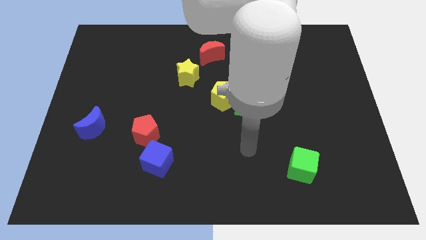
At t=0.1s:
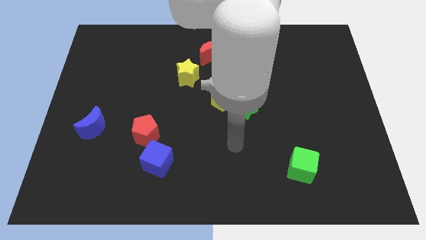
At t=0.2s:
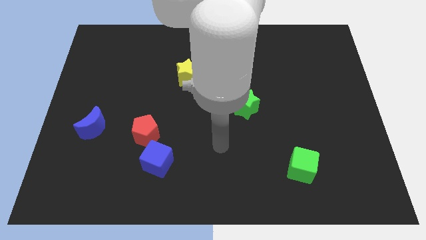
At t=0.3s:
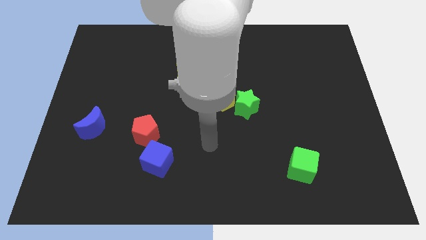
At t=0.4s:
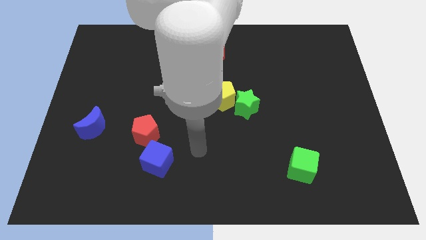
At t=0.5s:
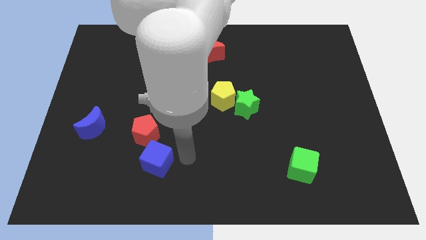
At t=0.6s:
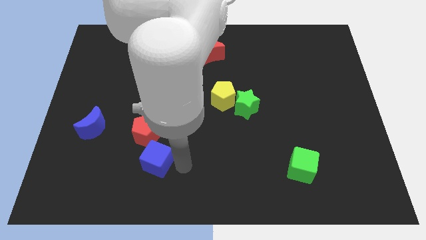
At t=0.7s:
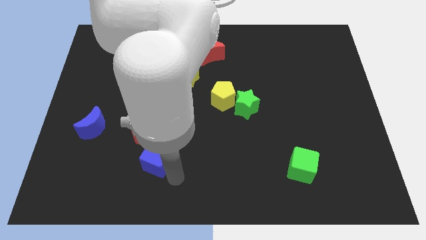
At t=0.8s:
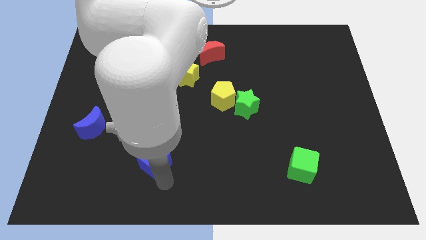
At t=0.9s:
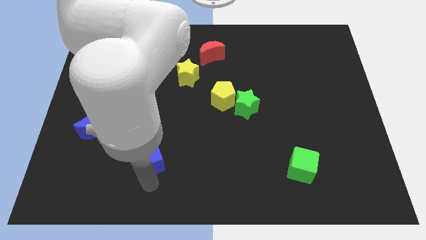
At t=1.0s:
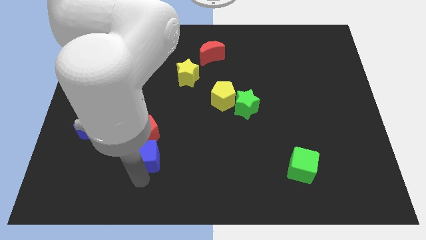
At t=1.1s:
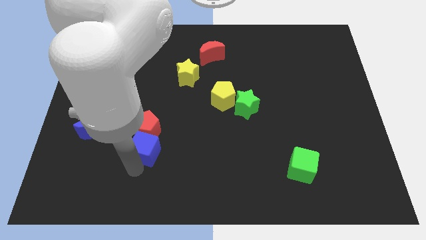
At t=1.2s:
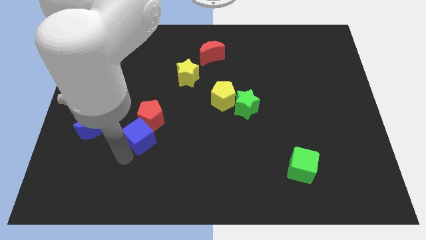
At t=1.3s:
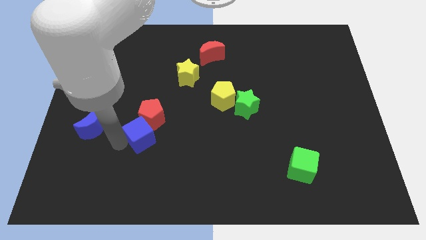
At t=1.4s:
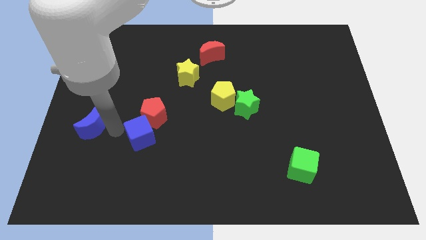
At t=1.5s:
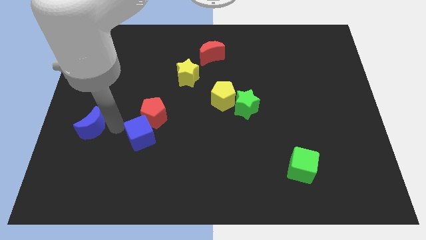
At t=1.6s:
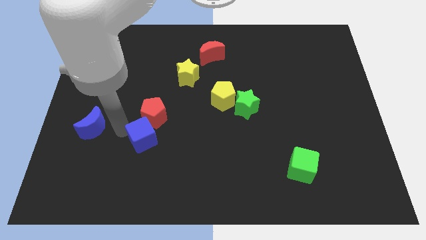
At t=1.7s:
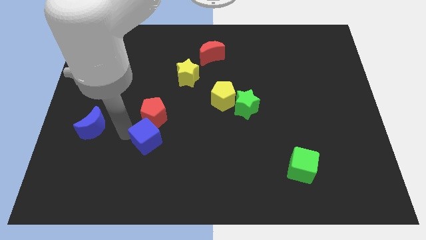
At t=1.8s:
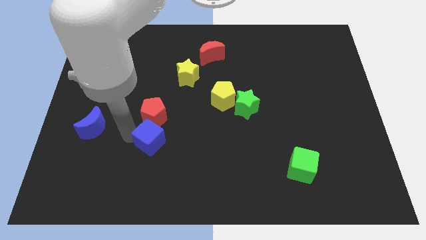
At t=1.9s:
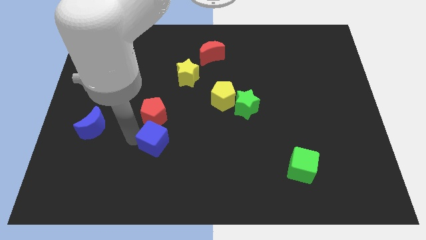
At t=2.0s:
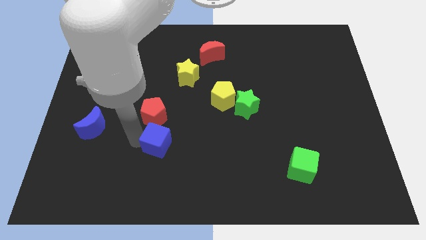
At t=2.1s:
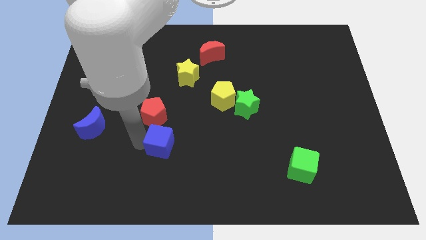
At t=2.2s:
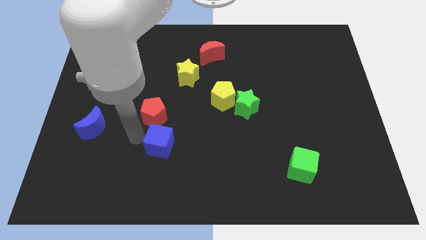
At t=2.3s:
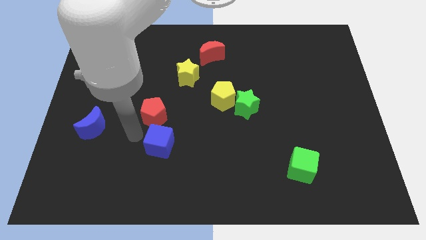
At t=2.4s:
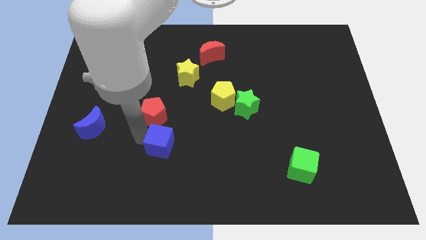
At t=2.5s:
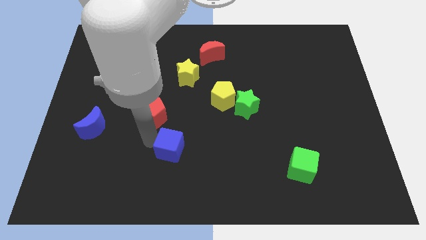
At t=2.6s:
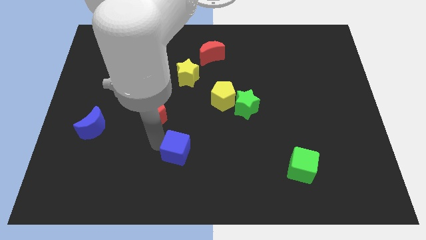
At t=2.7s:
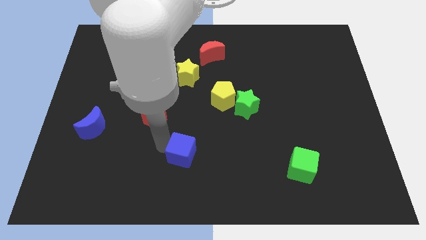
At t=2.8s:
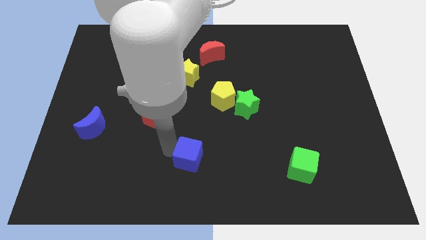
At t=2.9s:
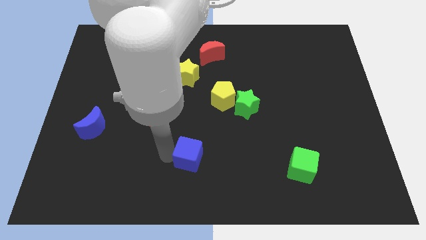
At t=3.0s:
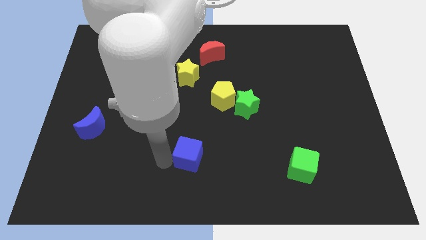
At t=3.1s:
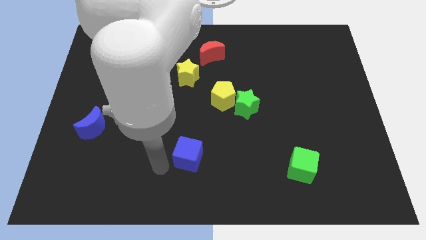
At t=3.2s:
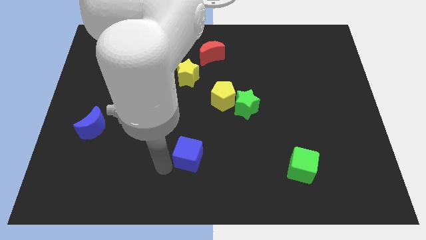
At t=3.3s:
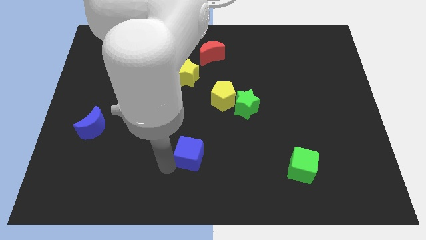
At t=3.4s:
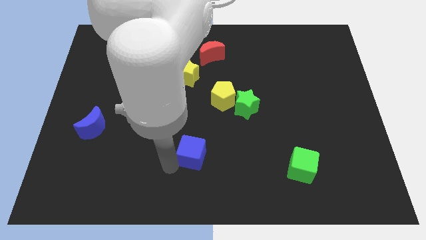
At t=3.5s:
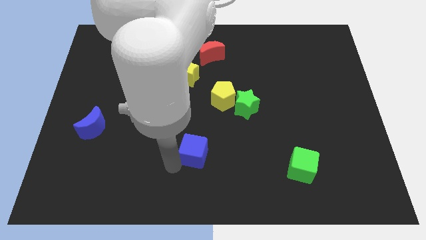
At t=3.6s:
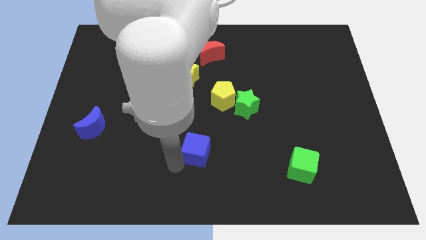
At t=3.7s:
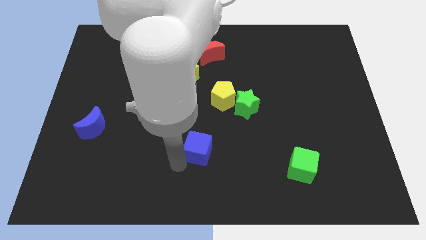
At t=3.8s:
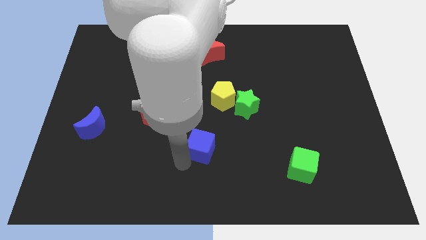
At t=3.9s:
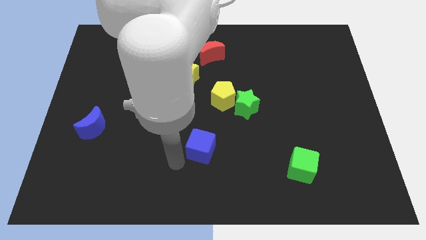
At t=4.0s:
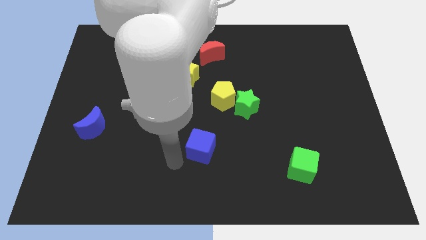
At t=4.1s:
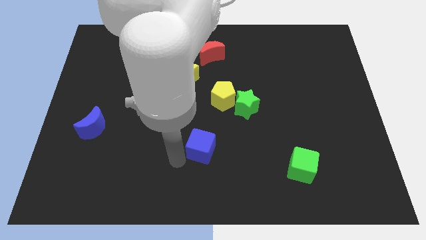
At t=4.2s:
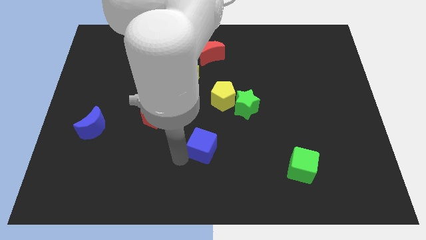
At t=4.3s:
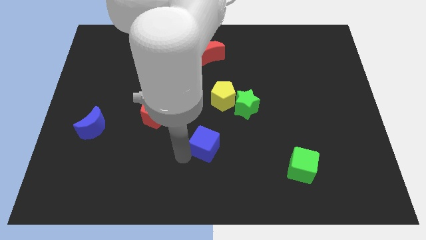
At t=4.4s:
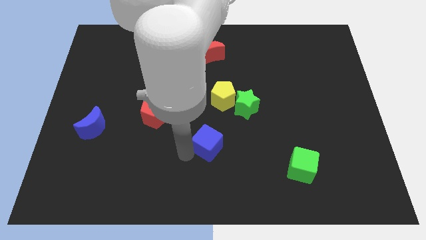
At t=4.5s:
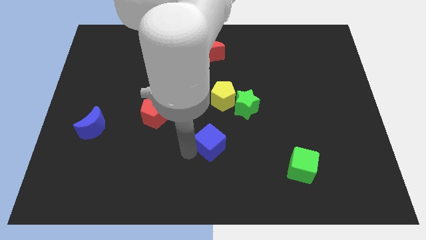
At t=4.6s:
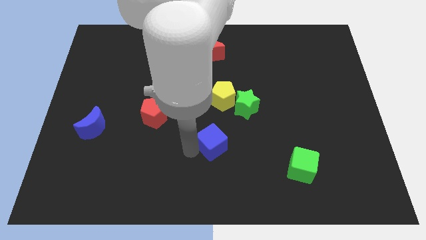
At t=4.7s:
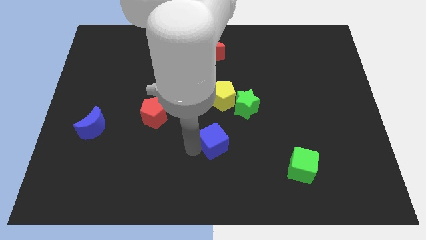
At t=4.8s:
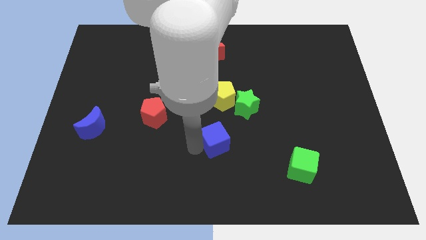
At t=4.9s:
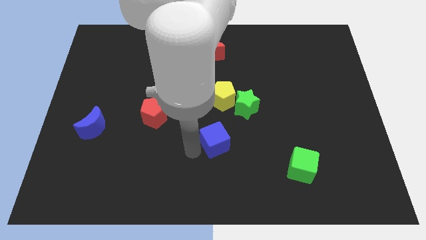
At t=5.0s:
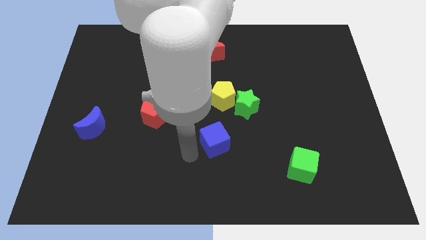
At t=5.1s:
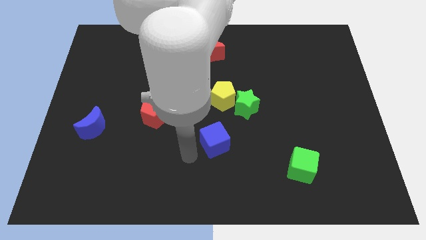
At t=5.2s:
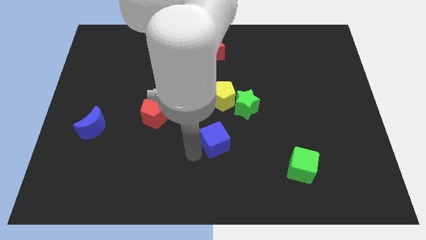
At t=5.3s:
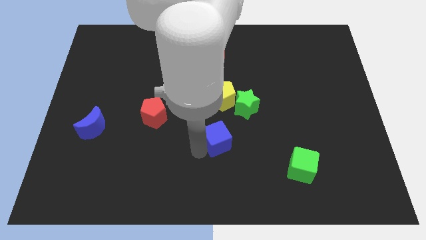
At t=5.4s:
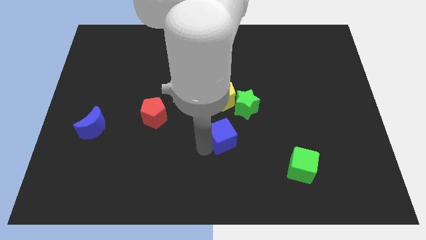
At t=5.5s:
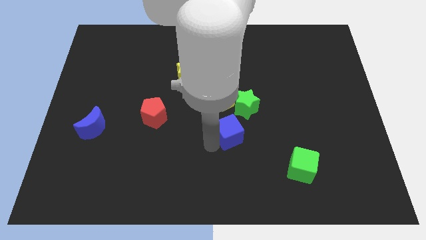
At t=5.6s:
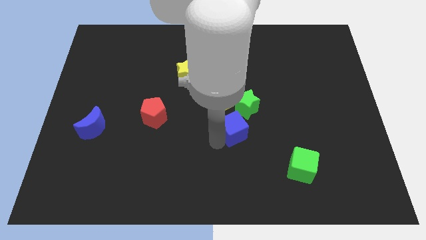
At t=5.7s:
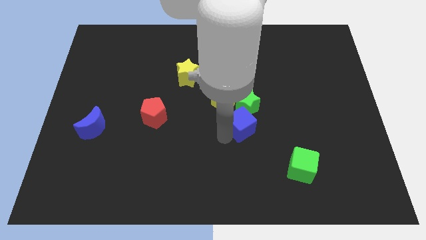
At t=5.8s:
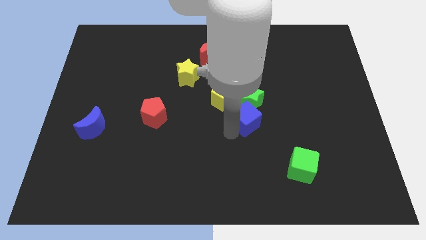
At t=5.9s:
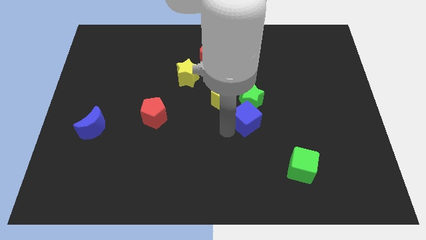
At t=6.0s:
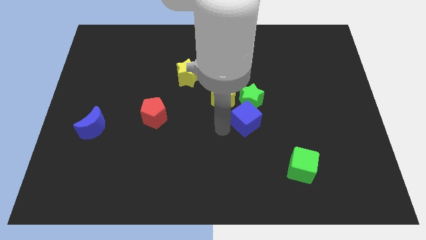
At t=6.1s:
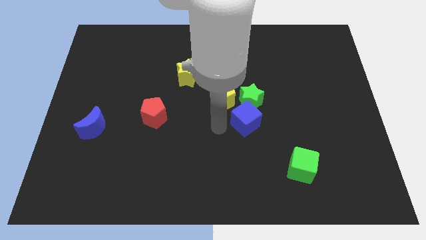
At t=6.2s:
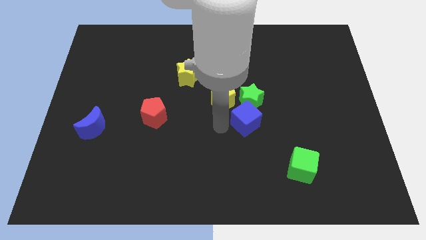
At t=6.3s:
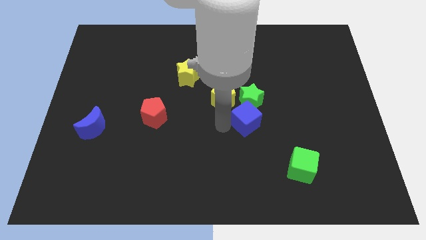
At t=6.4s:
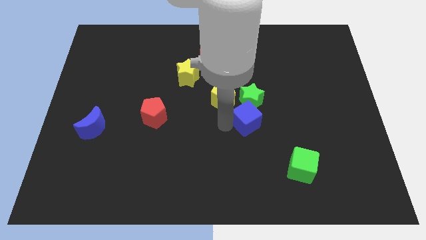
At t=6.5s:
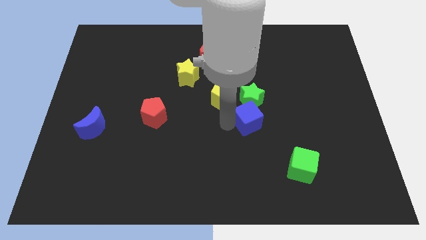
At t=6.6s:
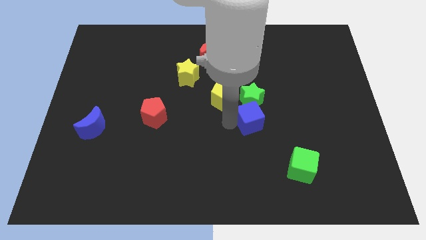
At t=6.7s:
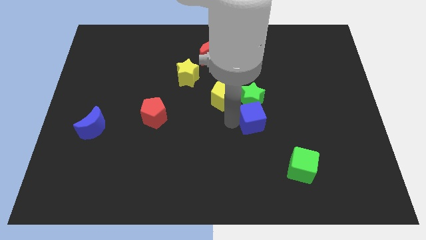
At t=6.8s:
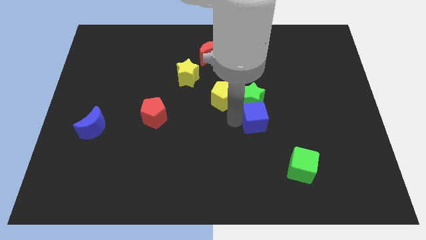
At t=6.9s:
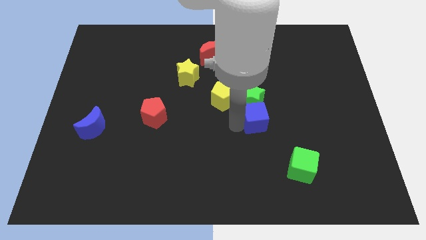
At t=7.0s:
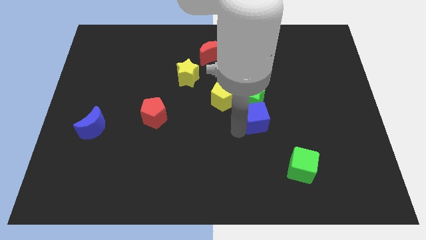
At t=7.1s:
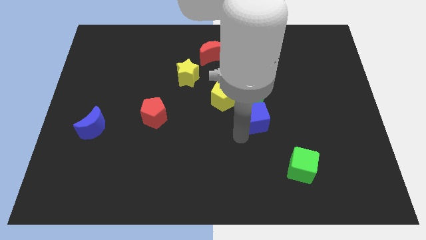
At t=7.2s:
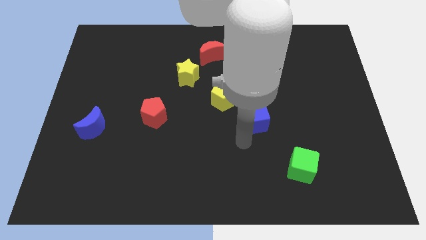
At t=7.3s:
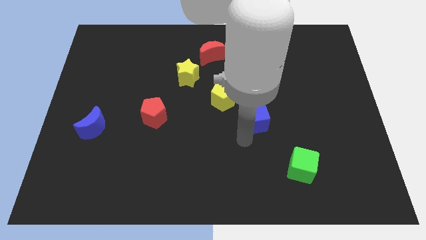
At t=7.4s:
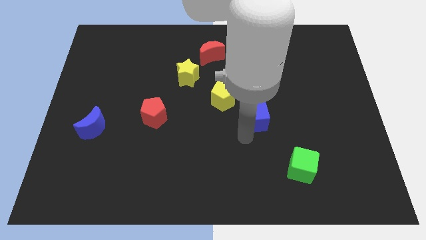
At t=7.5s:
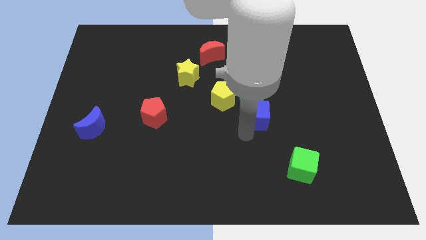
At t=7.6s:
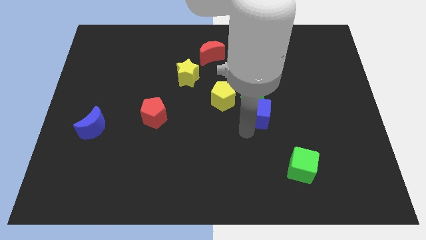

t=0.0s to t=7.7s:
move the blue cube just right of the yellow pentagon
